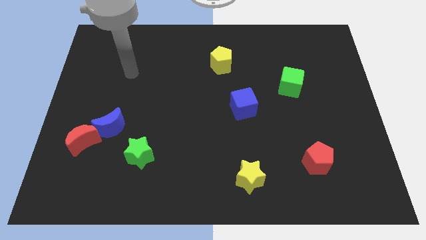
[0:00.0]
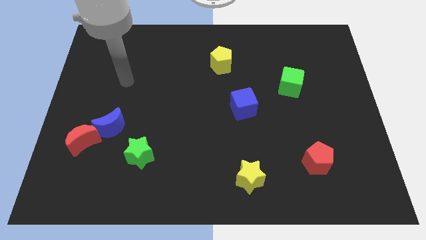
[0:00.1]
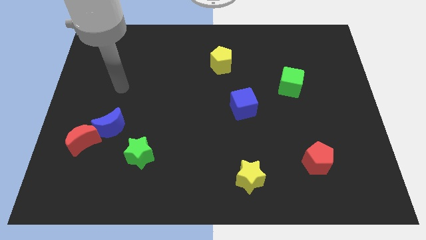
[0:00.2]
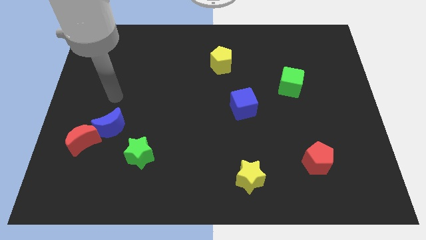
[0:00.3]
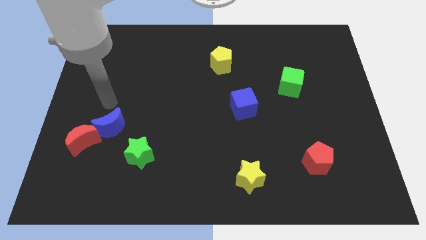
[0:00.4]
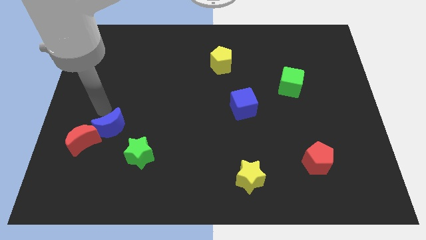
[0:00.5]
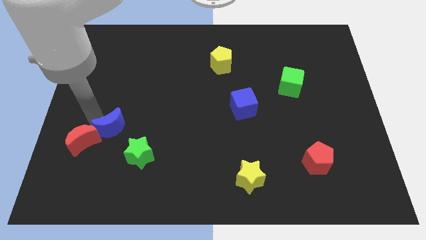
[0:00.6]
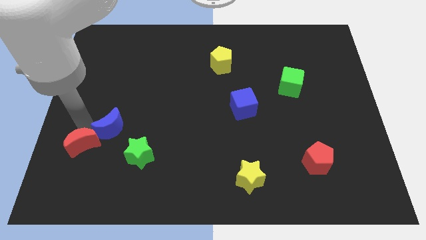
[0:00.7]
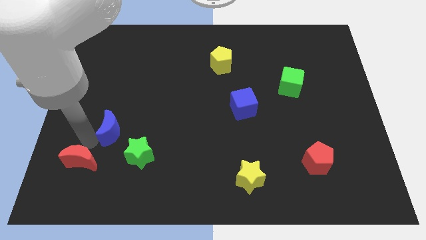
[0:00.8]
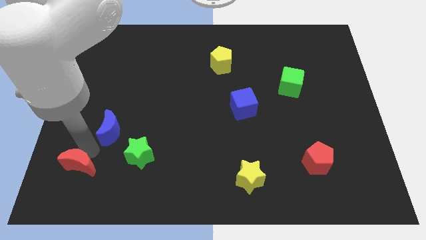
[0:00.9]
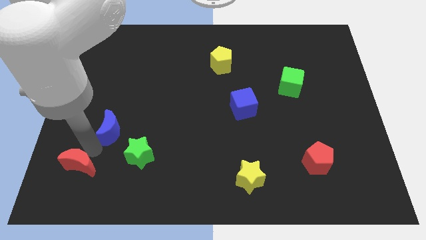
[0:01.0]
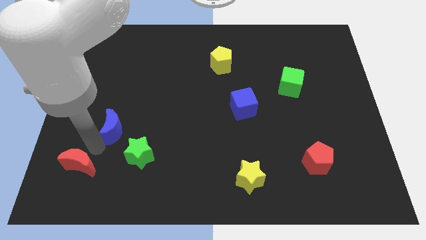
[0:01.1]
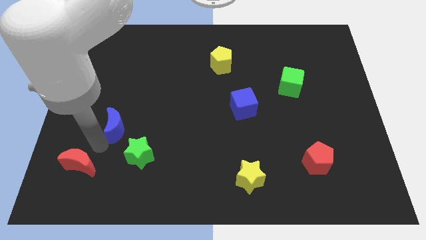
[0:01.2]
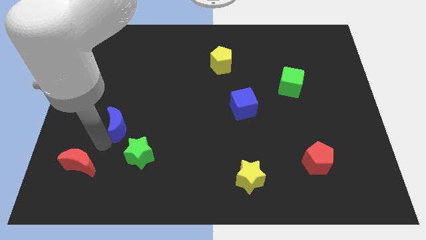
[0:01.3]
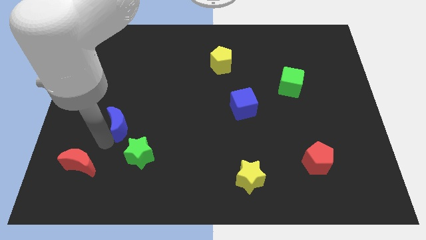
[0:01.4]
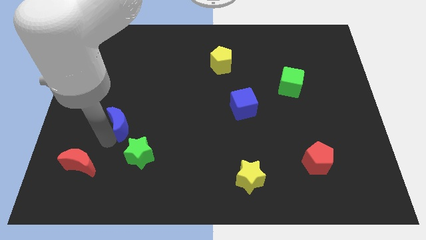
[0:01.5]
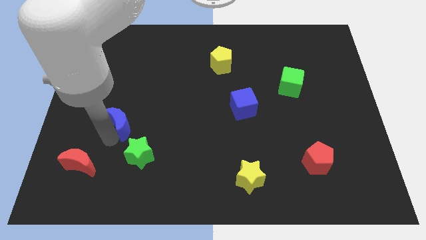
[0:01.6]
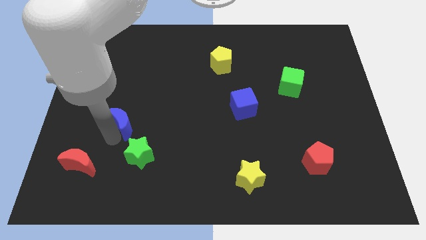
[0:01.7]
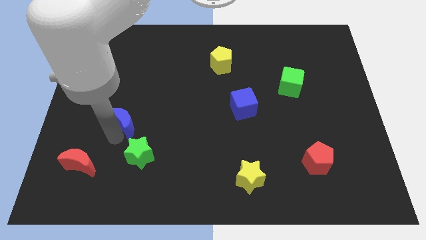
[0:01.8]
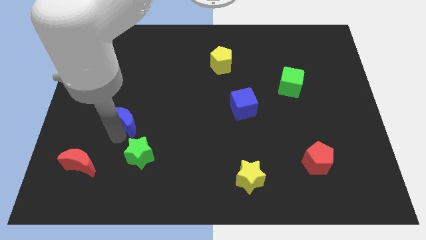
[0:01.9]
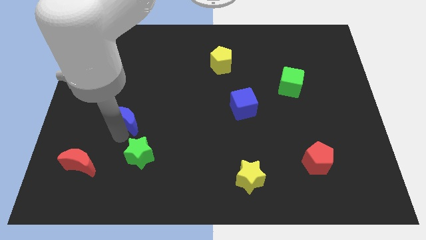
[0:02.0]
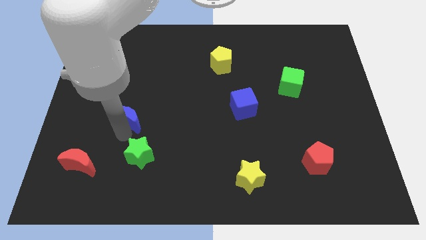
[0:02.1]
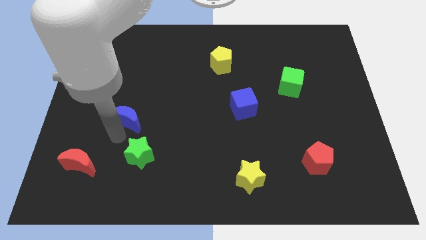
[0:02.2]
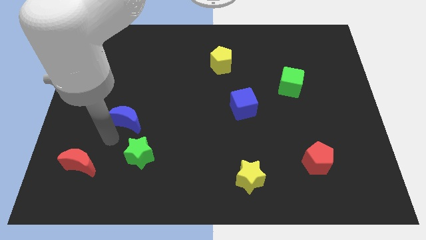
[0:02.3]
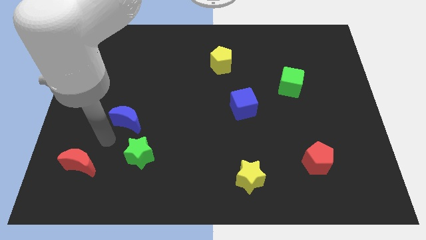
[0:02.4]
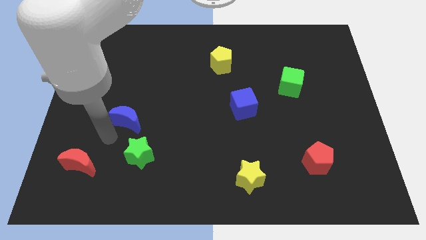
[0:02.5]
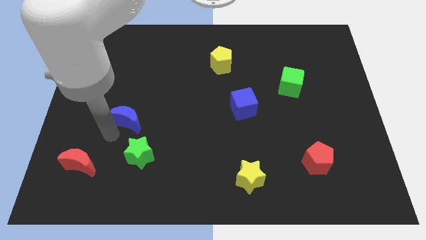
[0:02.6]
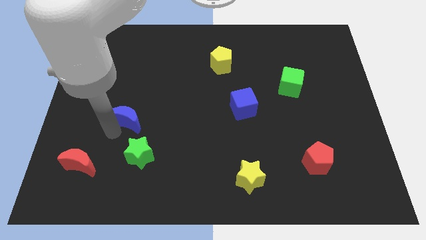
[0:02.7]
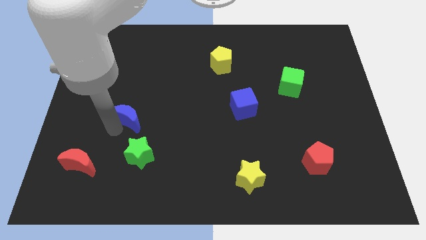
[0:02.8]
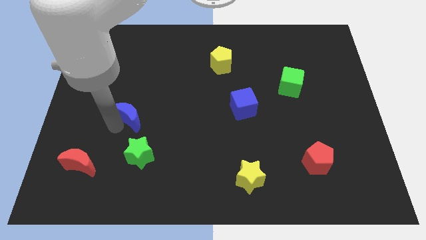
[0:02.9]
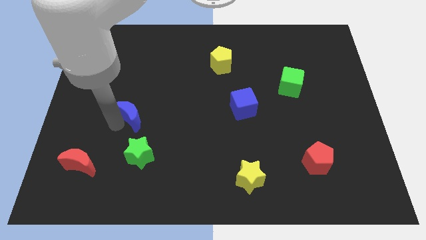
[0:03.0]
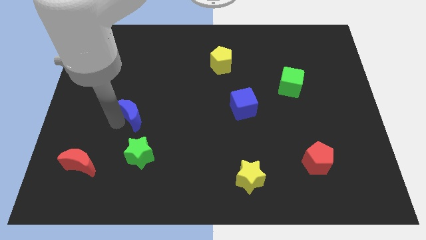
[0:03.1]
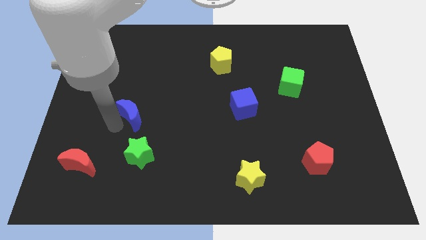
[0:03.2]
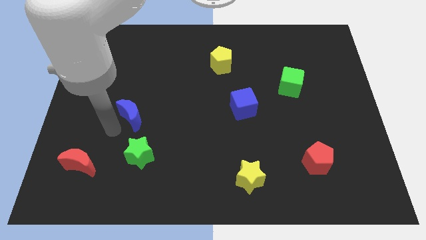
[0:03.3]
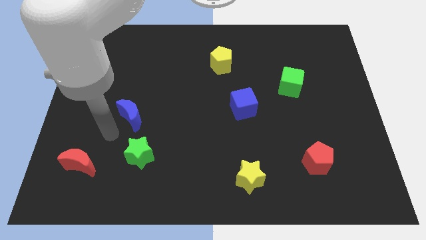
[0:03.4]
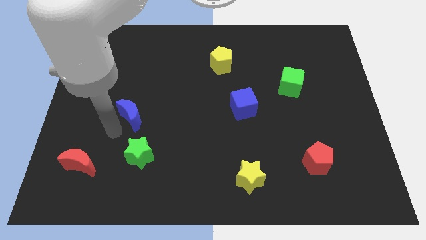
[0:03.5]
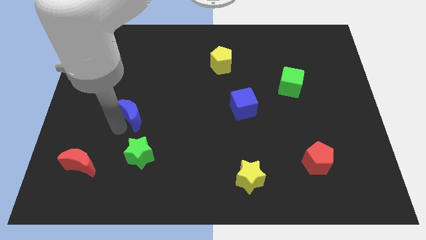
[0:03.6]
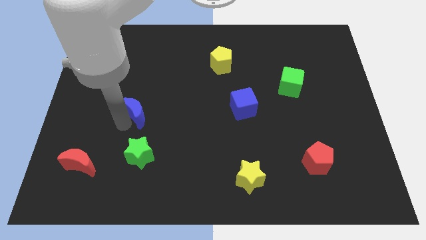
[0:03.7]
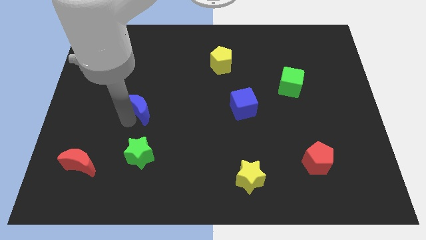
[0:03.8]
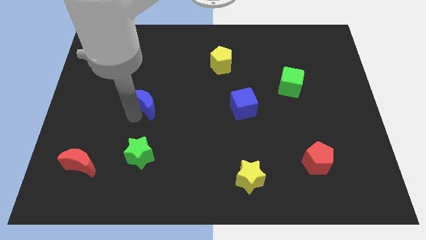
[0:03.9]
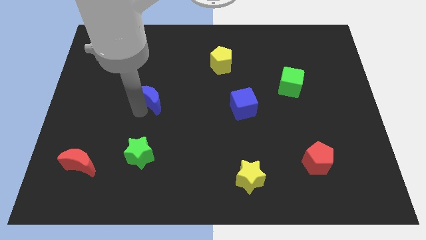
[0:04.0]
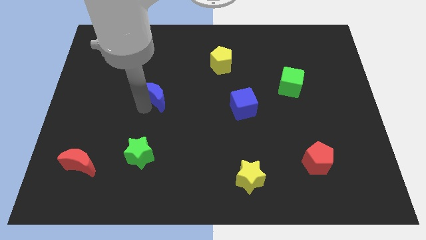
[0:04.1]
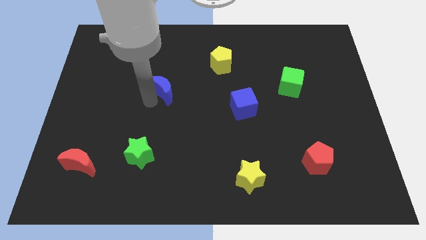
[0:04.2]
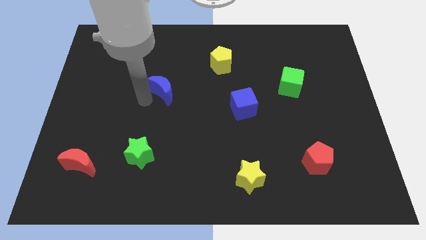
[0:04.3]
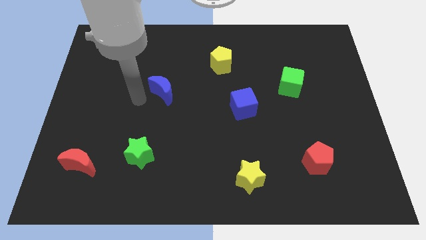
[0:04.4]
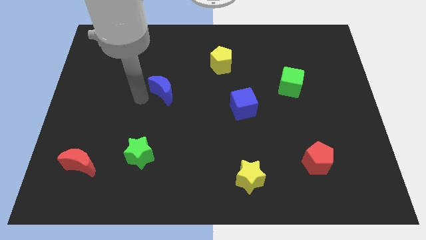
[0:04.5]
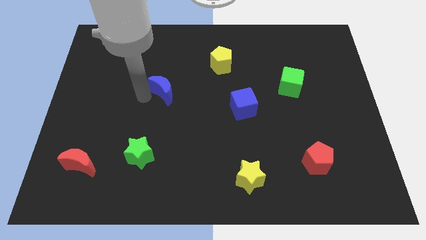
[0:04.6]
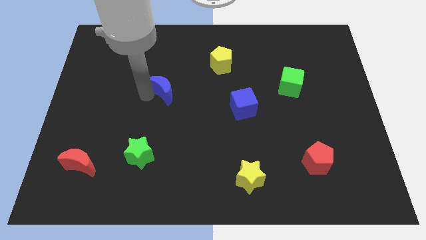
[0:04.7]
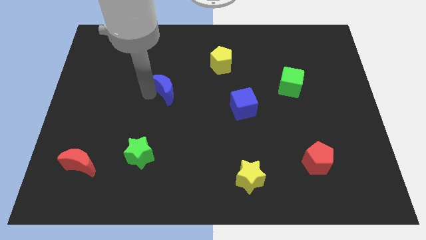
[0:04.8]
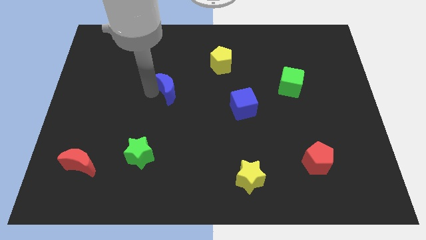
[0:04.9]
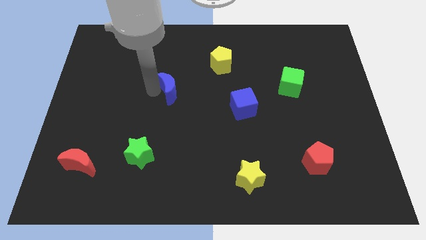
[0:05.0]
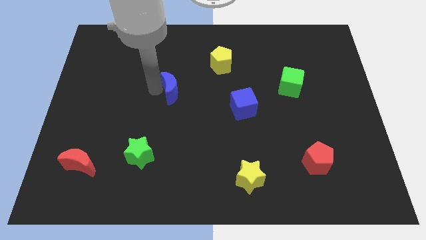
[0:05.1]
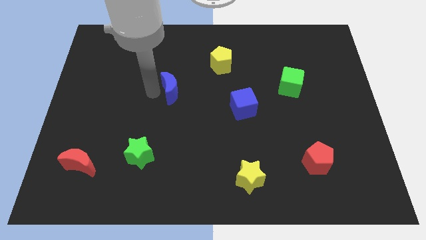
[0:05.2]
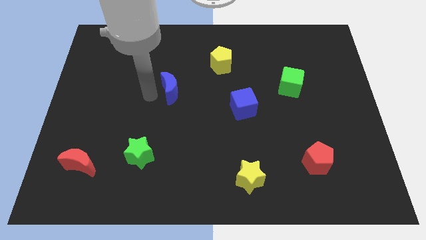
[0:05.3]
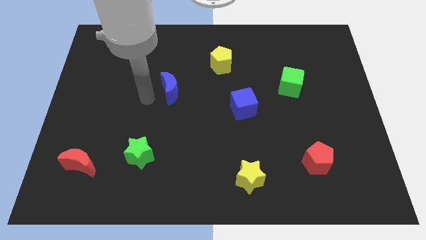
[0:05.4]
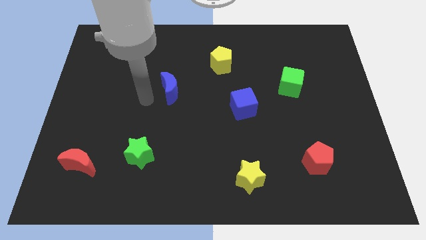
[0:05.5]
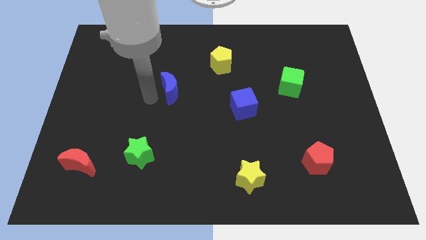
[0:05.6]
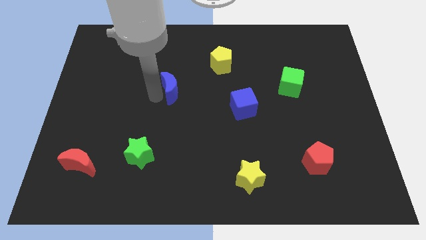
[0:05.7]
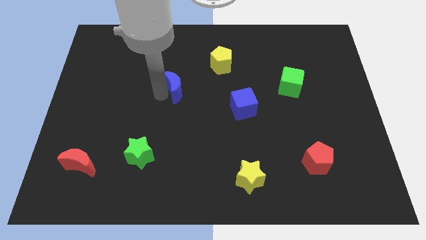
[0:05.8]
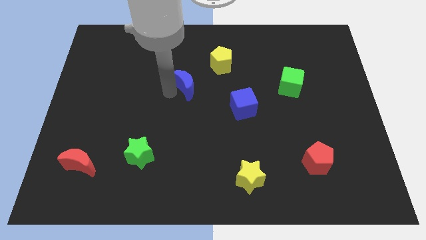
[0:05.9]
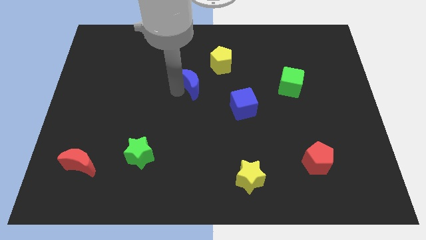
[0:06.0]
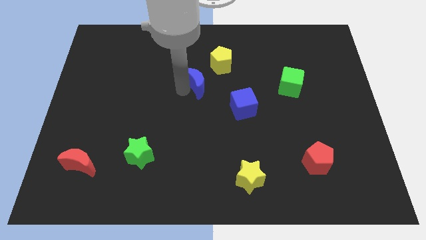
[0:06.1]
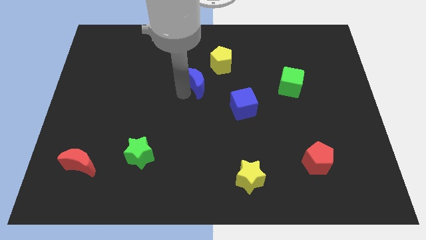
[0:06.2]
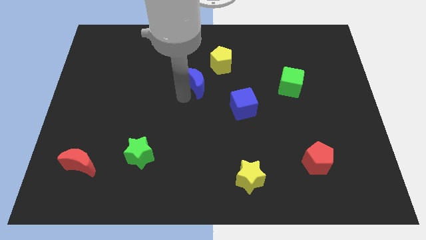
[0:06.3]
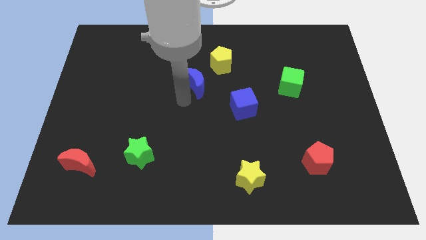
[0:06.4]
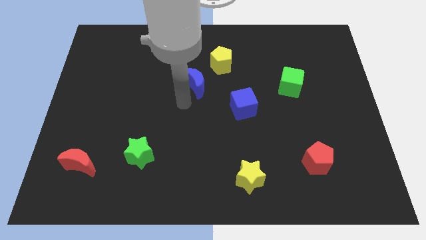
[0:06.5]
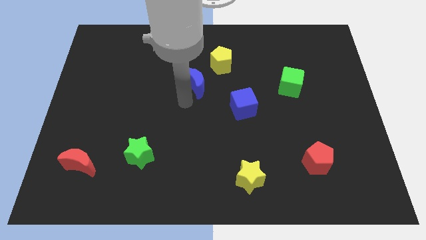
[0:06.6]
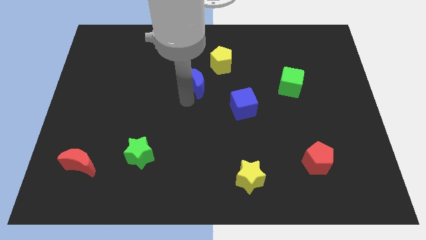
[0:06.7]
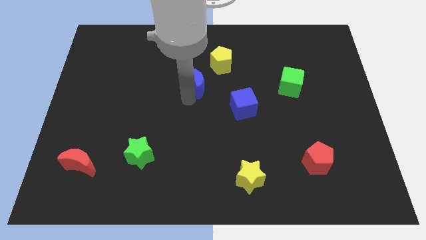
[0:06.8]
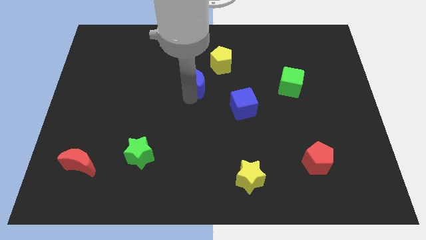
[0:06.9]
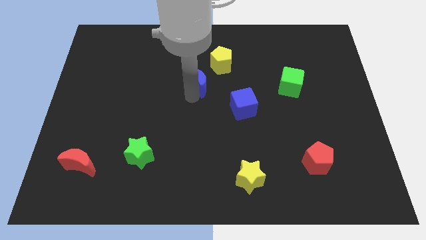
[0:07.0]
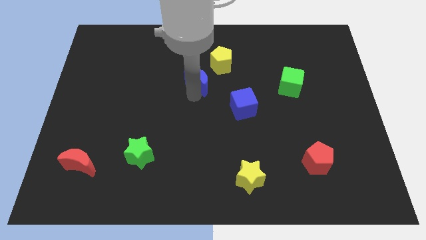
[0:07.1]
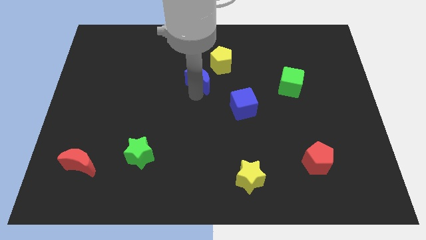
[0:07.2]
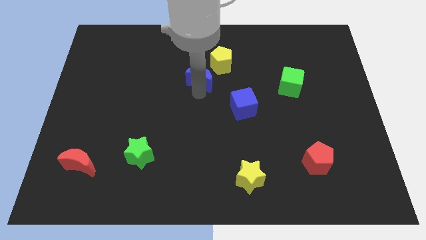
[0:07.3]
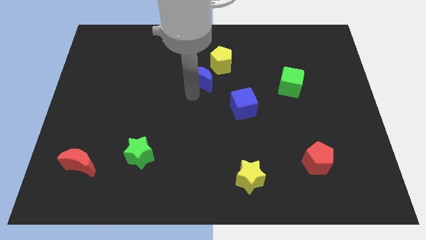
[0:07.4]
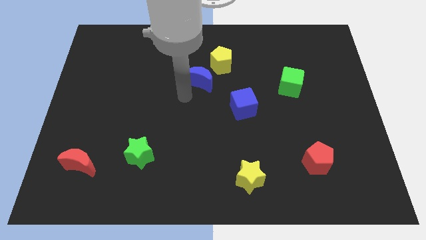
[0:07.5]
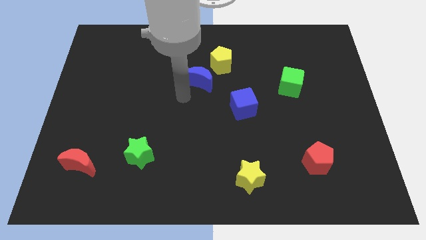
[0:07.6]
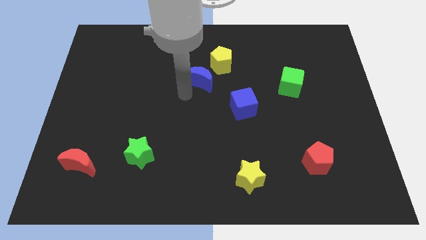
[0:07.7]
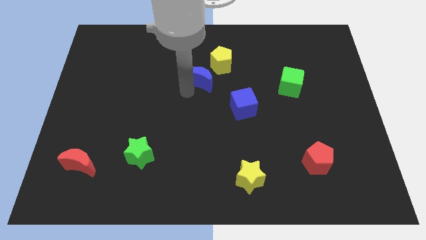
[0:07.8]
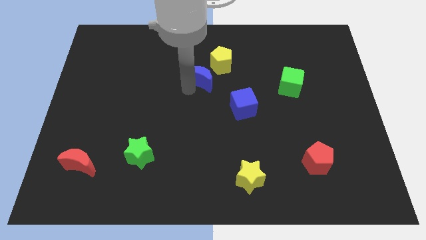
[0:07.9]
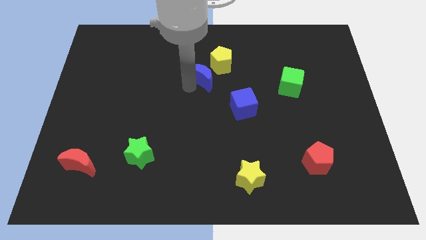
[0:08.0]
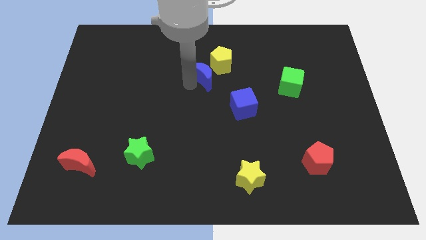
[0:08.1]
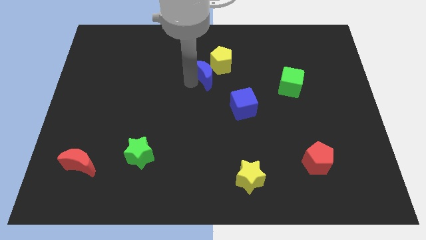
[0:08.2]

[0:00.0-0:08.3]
move the blue moon close to the yellow pentagon
